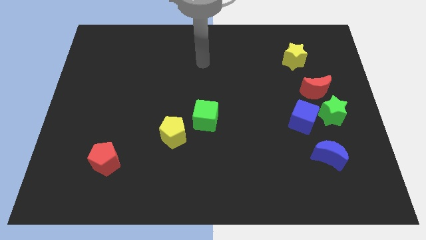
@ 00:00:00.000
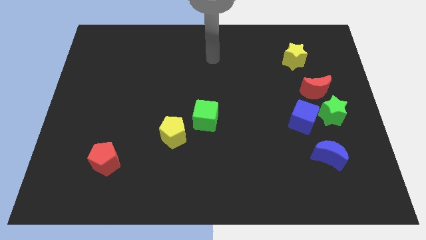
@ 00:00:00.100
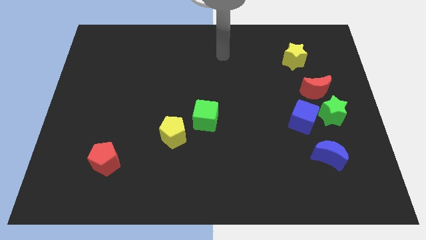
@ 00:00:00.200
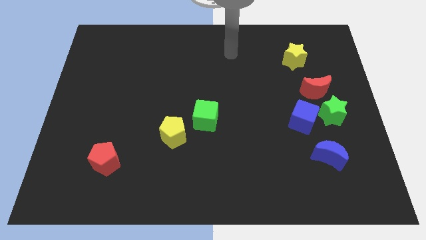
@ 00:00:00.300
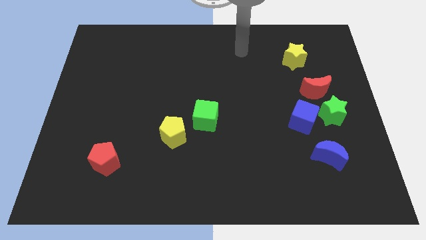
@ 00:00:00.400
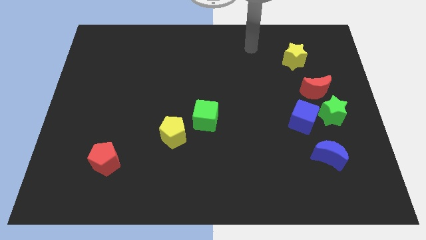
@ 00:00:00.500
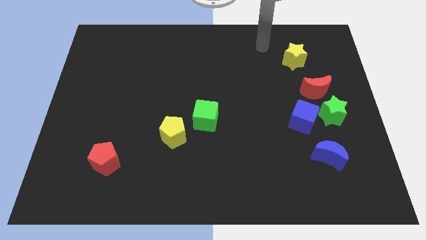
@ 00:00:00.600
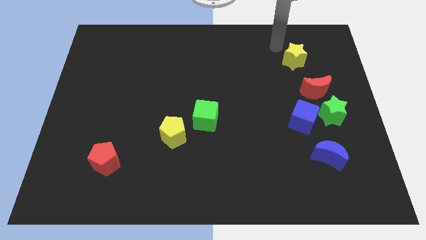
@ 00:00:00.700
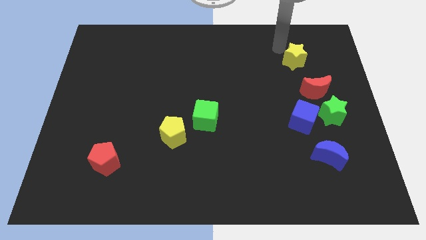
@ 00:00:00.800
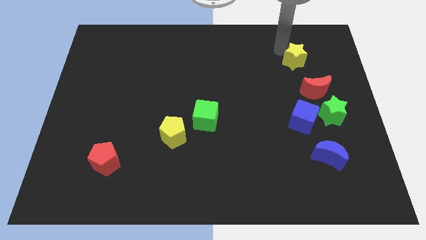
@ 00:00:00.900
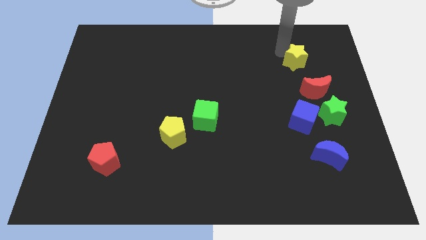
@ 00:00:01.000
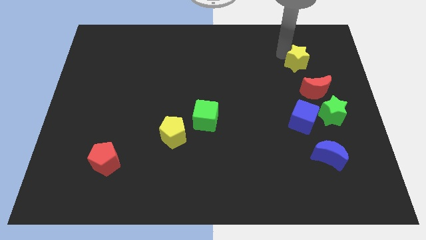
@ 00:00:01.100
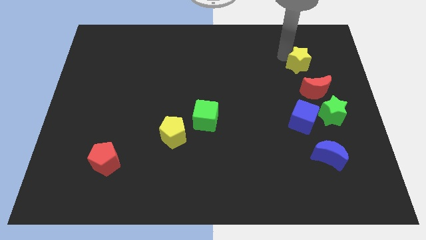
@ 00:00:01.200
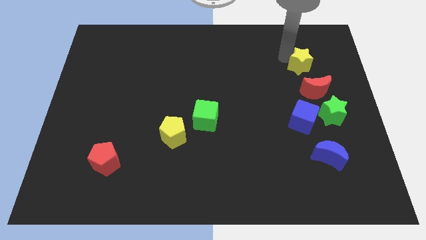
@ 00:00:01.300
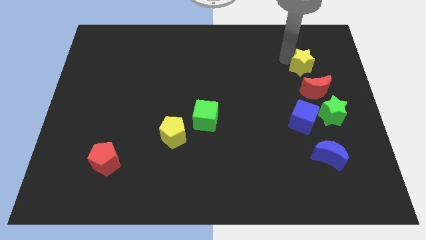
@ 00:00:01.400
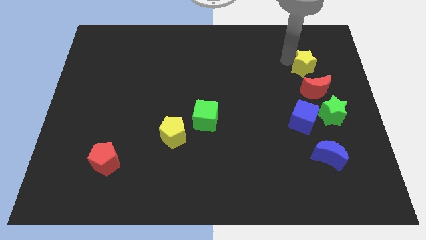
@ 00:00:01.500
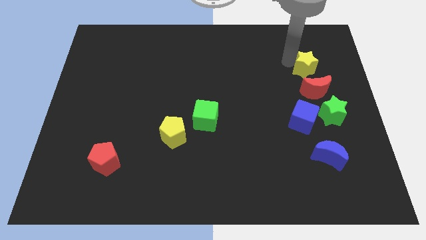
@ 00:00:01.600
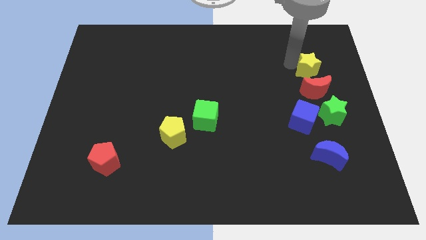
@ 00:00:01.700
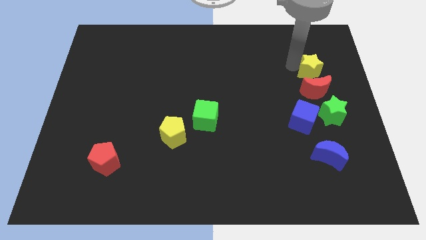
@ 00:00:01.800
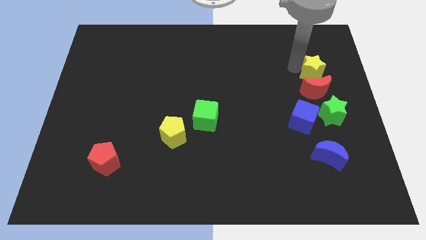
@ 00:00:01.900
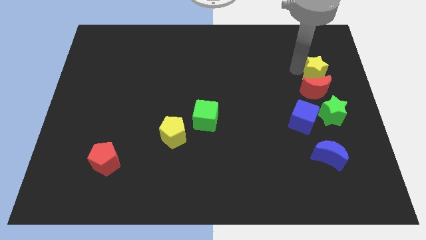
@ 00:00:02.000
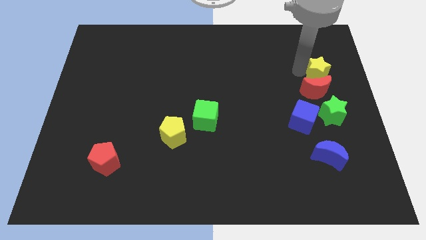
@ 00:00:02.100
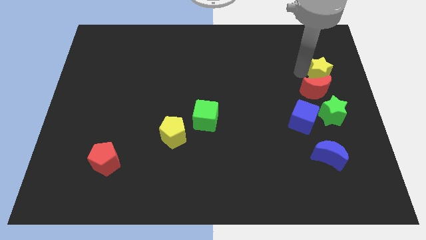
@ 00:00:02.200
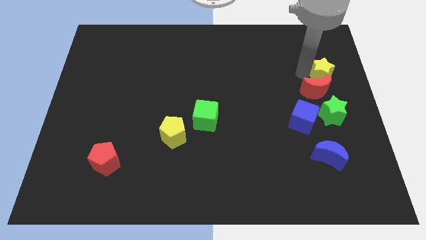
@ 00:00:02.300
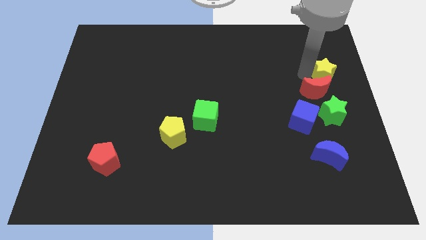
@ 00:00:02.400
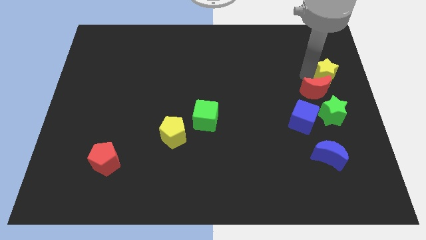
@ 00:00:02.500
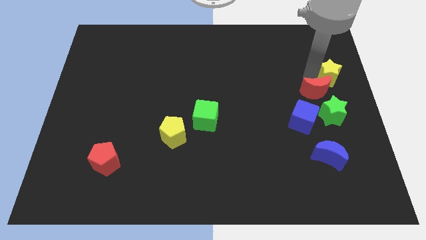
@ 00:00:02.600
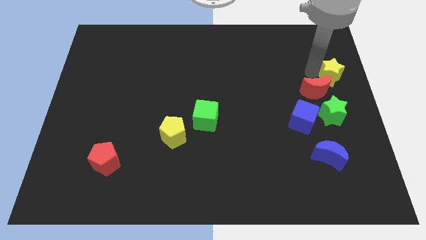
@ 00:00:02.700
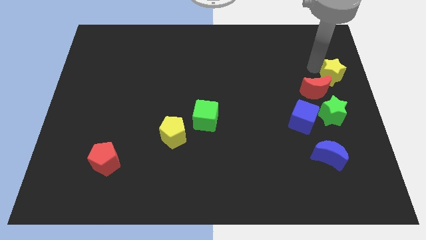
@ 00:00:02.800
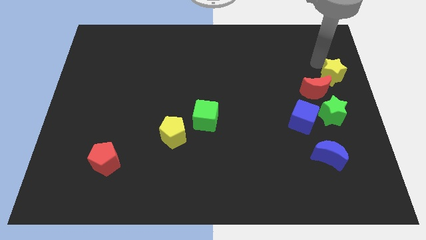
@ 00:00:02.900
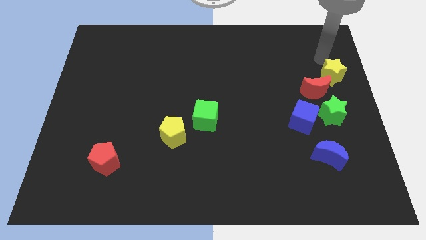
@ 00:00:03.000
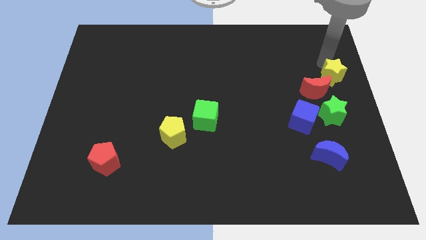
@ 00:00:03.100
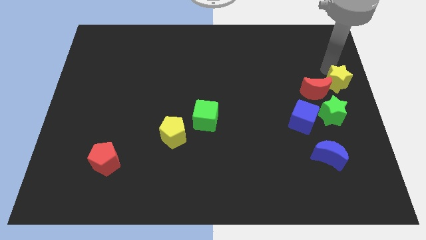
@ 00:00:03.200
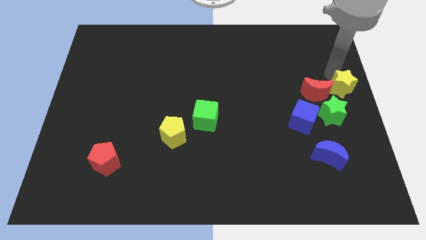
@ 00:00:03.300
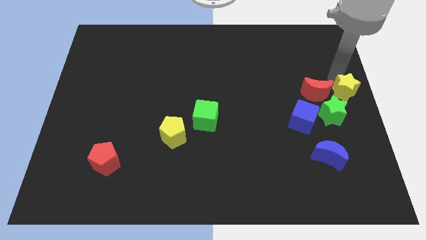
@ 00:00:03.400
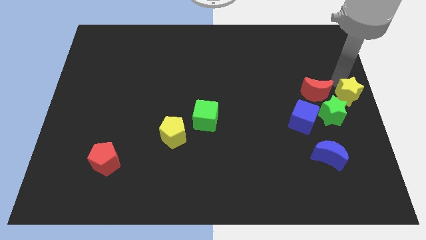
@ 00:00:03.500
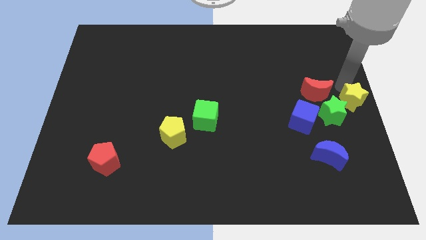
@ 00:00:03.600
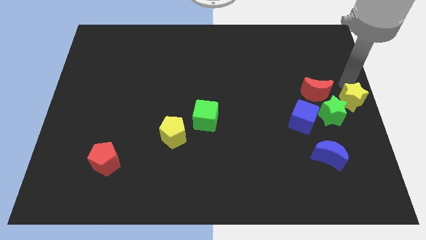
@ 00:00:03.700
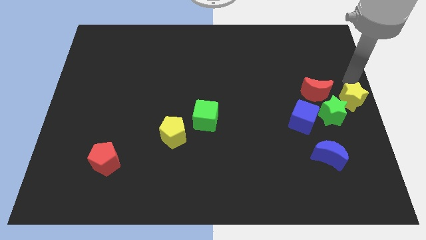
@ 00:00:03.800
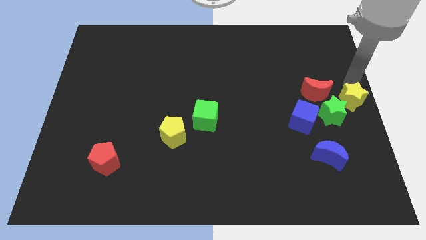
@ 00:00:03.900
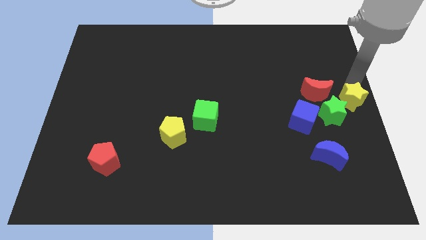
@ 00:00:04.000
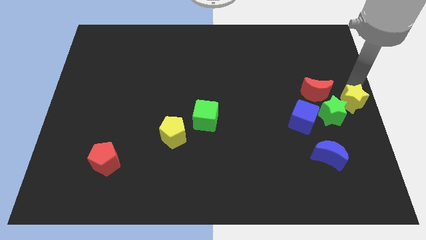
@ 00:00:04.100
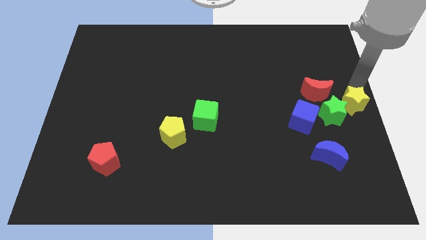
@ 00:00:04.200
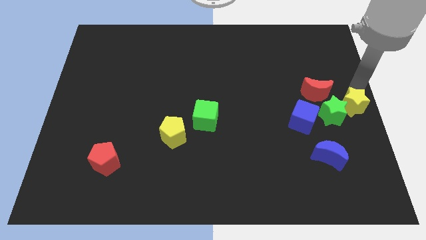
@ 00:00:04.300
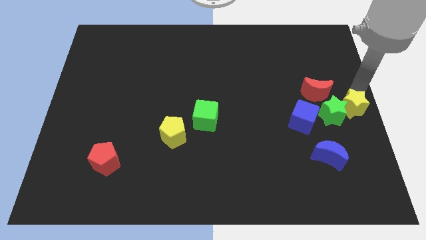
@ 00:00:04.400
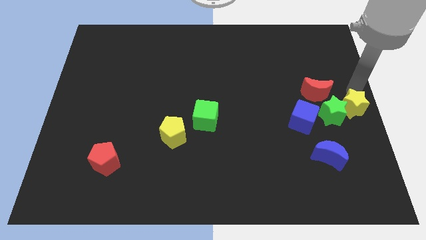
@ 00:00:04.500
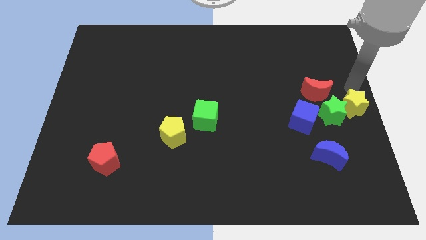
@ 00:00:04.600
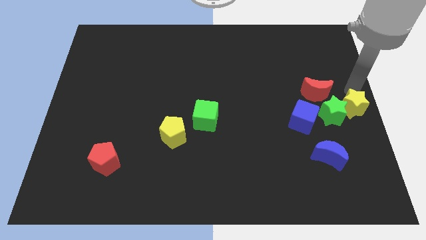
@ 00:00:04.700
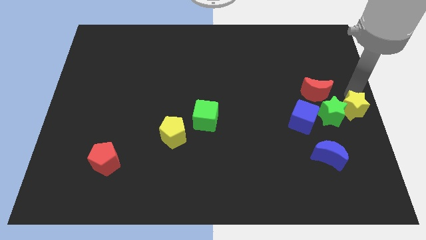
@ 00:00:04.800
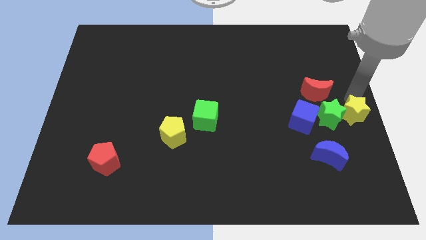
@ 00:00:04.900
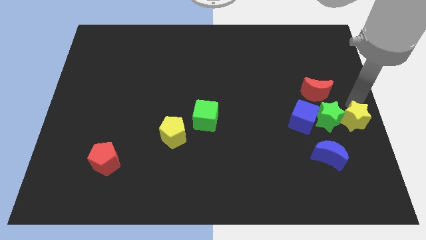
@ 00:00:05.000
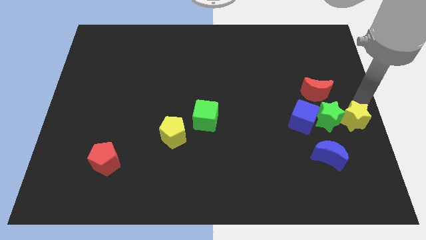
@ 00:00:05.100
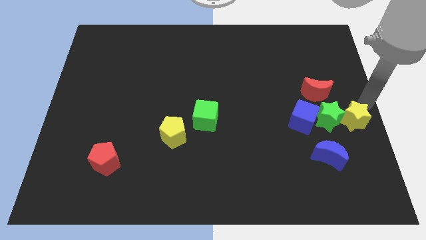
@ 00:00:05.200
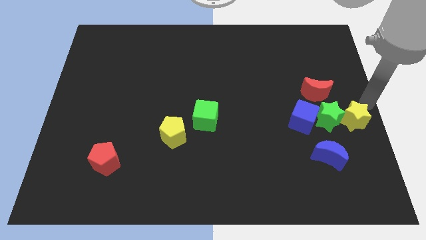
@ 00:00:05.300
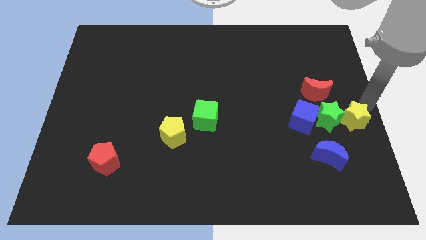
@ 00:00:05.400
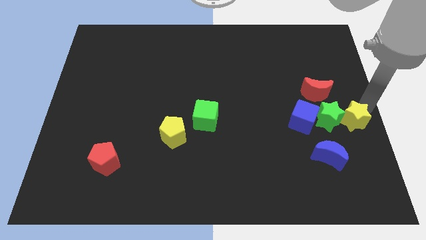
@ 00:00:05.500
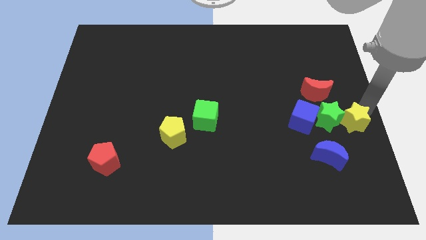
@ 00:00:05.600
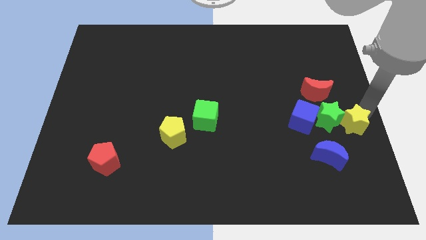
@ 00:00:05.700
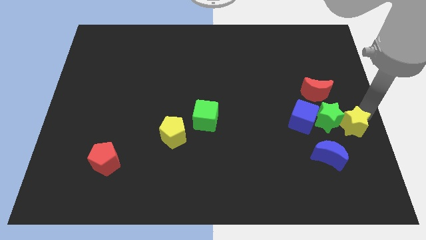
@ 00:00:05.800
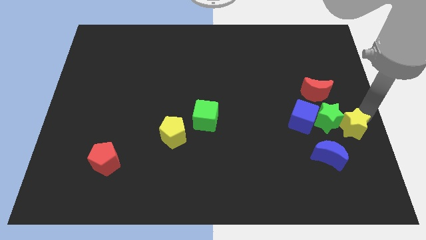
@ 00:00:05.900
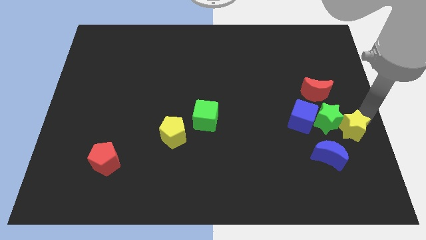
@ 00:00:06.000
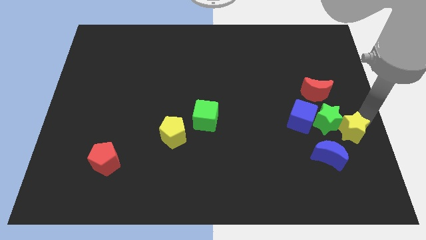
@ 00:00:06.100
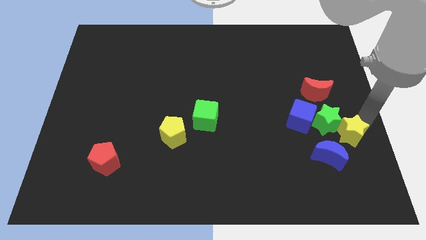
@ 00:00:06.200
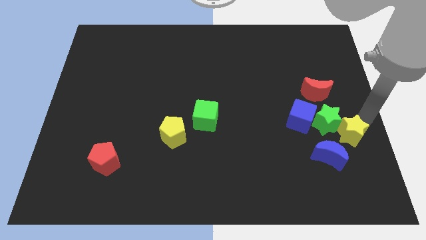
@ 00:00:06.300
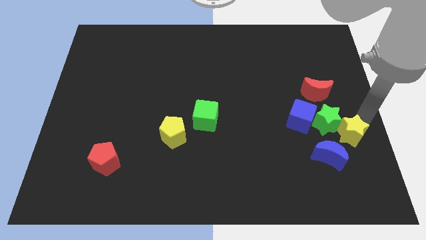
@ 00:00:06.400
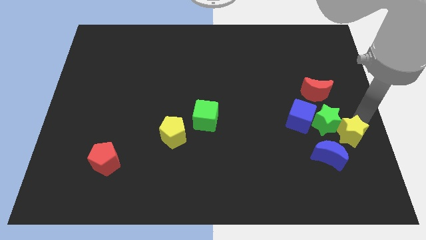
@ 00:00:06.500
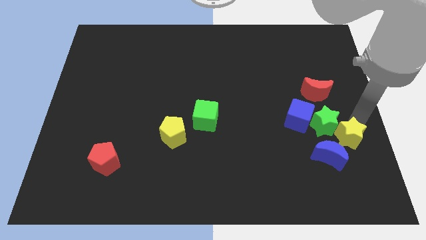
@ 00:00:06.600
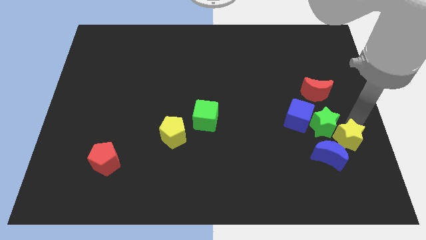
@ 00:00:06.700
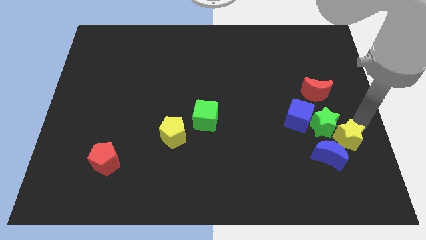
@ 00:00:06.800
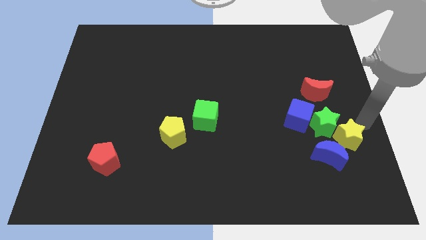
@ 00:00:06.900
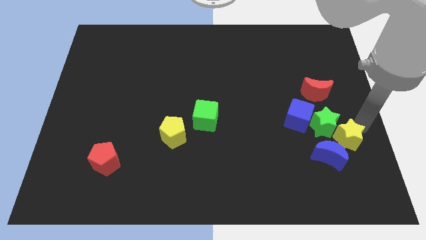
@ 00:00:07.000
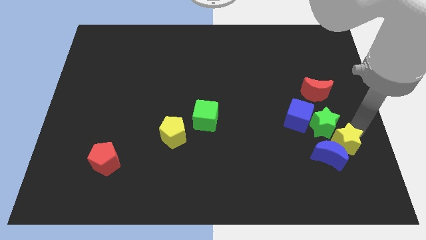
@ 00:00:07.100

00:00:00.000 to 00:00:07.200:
slide the yellow star towards the blue moon

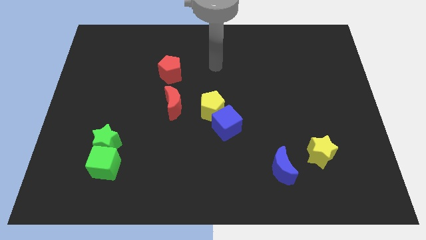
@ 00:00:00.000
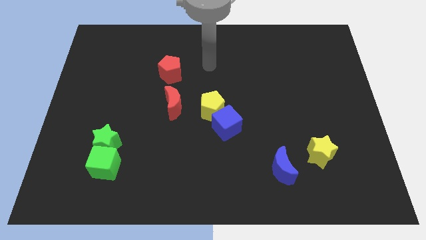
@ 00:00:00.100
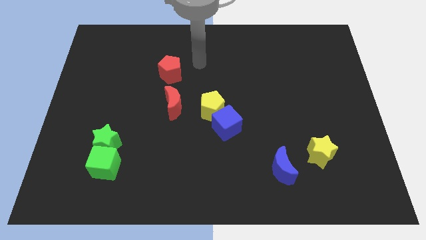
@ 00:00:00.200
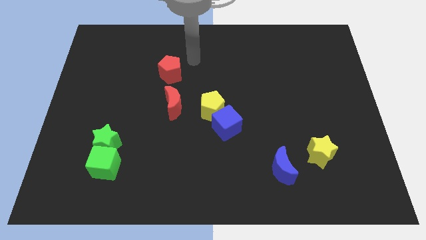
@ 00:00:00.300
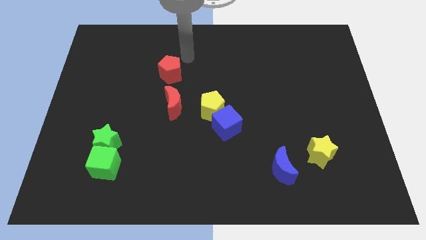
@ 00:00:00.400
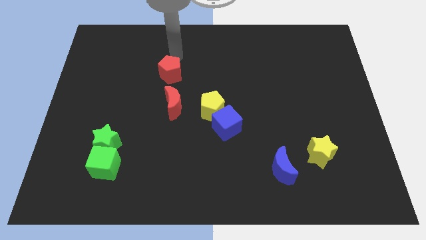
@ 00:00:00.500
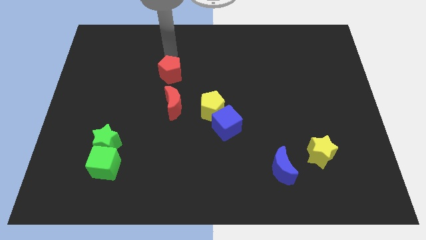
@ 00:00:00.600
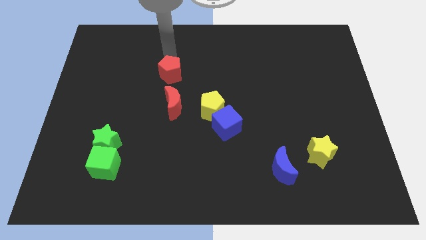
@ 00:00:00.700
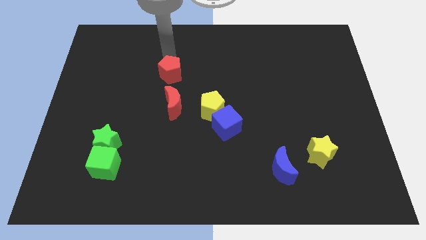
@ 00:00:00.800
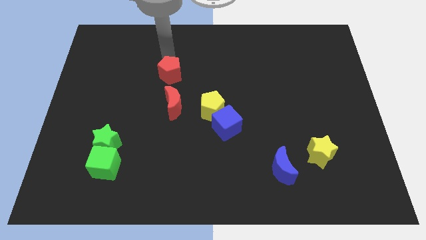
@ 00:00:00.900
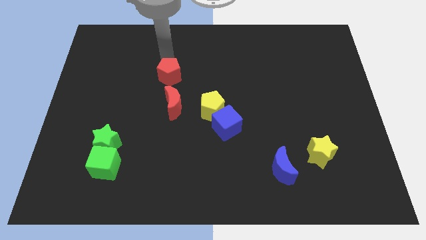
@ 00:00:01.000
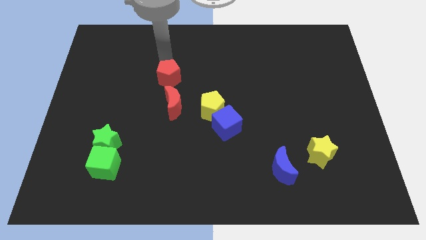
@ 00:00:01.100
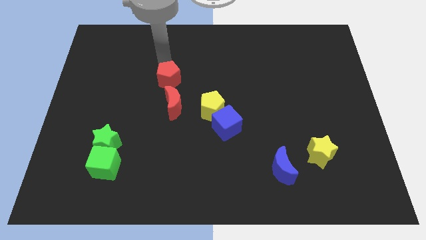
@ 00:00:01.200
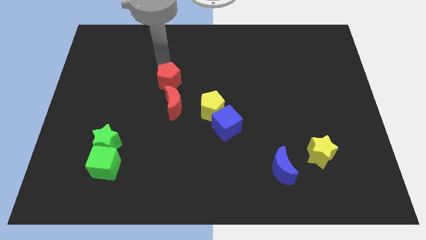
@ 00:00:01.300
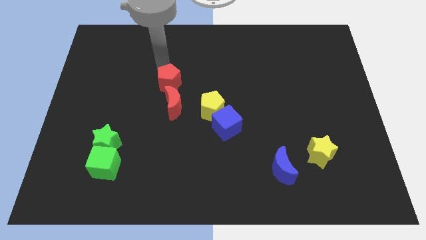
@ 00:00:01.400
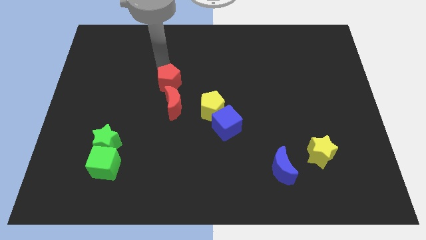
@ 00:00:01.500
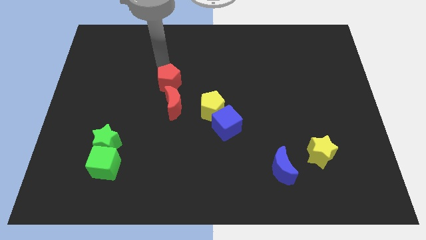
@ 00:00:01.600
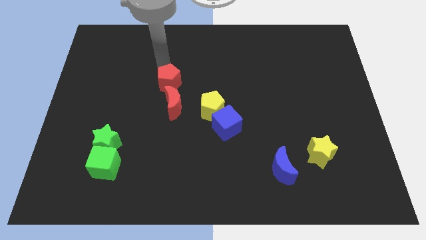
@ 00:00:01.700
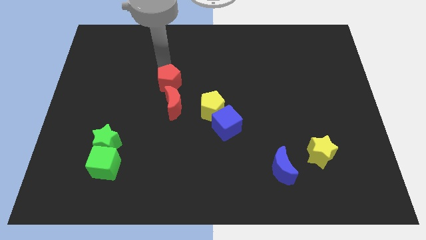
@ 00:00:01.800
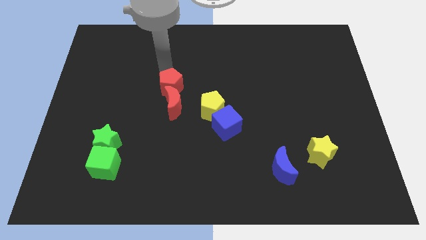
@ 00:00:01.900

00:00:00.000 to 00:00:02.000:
put the red pentagon towards the red moon
